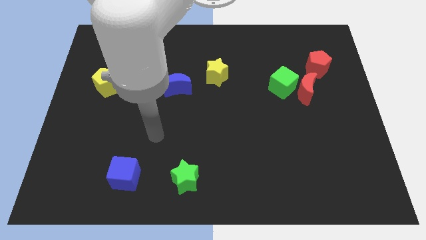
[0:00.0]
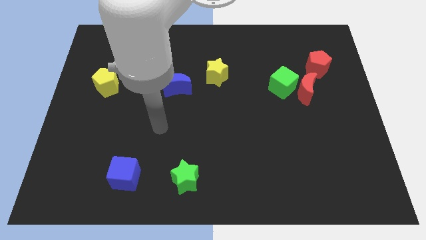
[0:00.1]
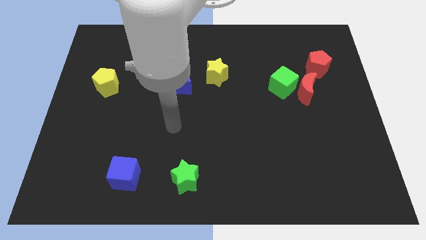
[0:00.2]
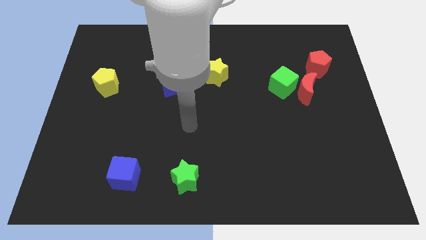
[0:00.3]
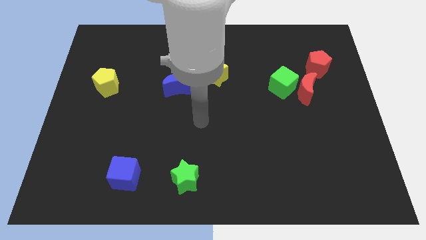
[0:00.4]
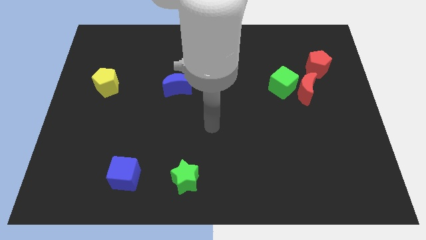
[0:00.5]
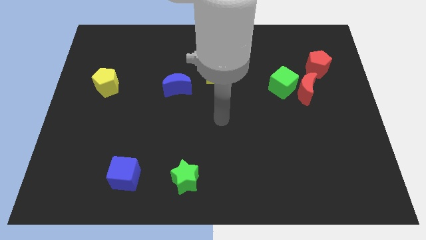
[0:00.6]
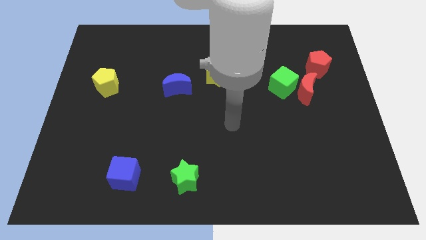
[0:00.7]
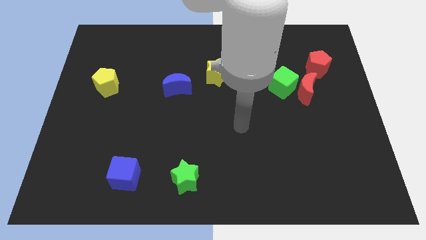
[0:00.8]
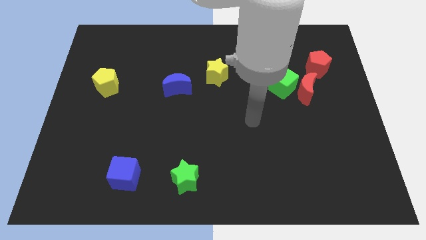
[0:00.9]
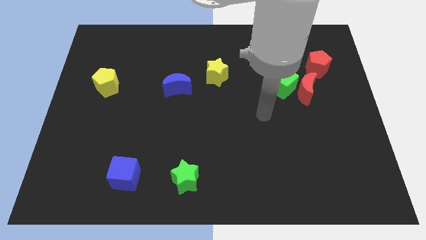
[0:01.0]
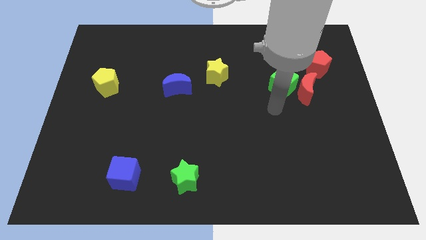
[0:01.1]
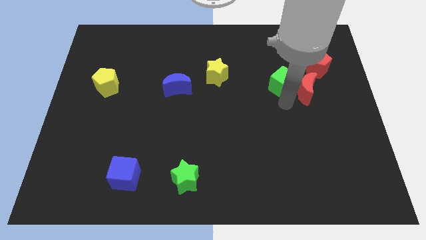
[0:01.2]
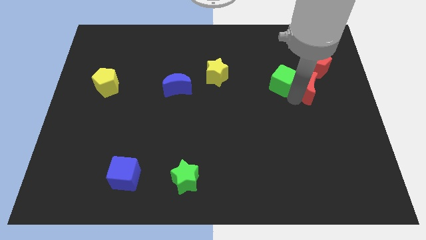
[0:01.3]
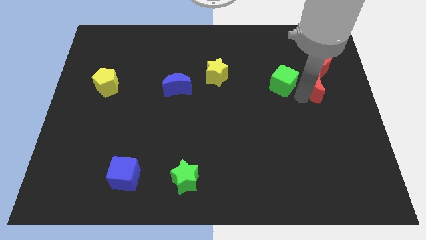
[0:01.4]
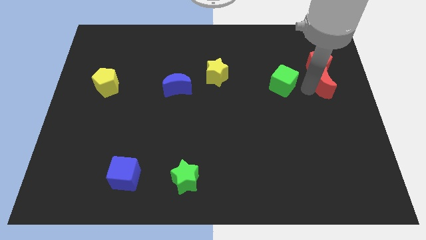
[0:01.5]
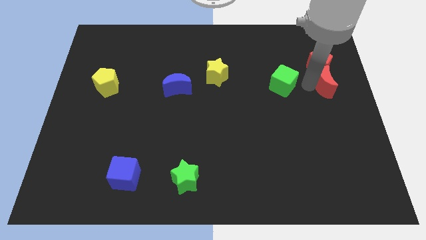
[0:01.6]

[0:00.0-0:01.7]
move the green cube away from the red moon

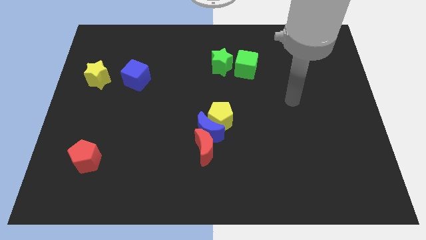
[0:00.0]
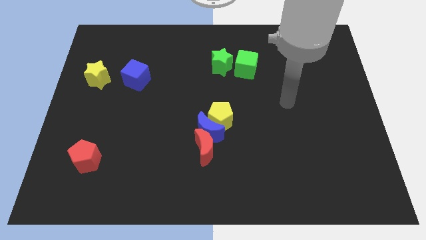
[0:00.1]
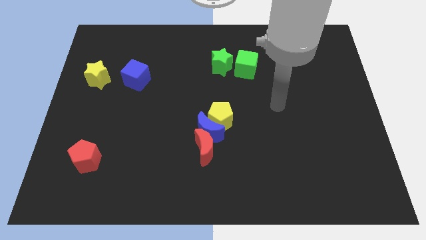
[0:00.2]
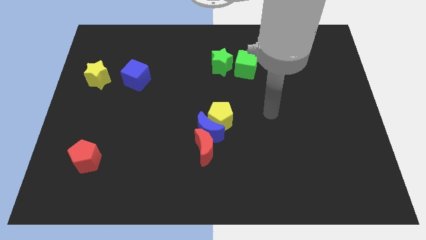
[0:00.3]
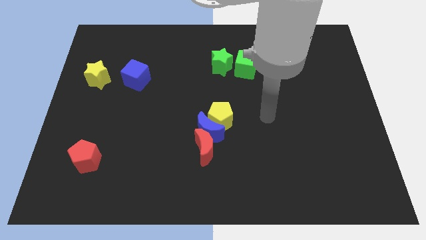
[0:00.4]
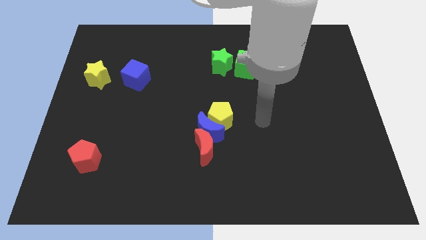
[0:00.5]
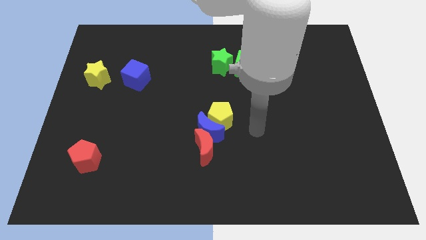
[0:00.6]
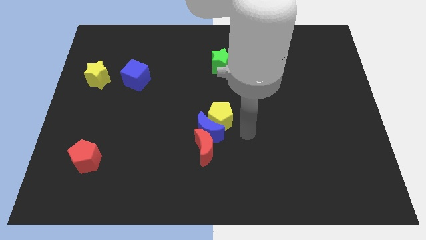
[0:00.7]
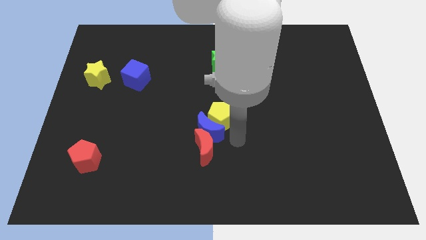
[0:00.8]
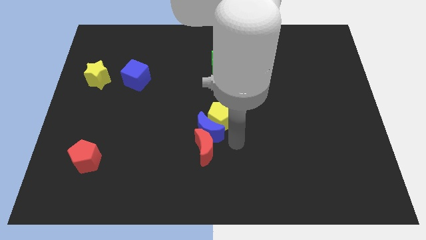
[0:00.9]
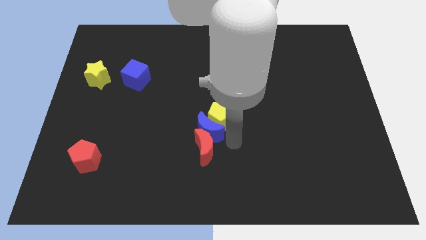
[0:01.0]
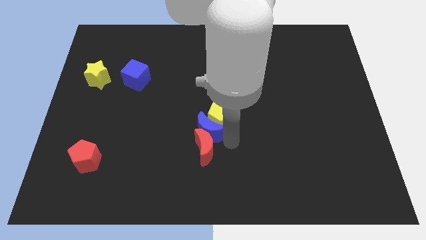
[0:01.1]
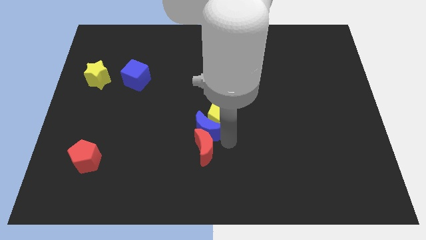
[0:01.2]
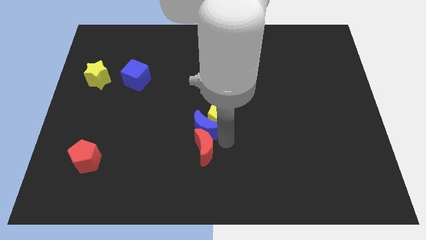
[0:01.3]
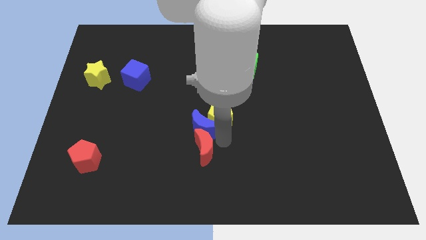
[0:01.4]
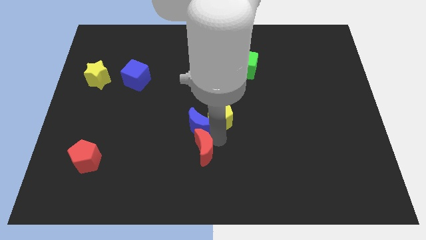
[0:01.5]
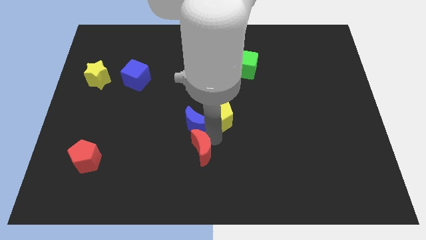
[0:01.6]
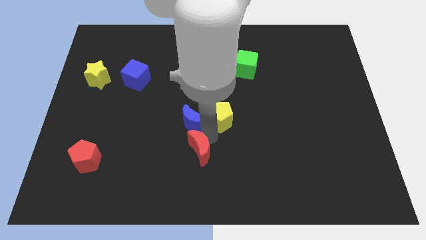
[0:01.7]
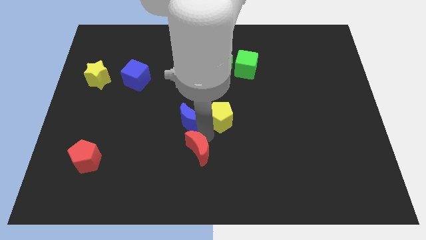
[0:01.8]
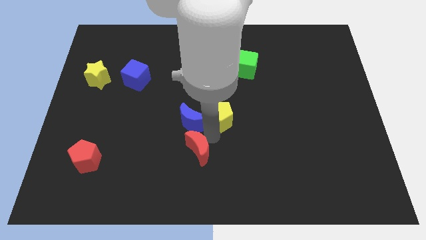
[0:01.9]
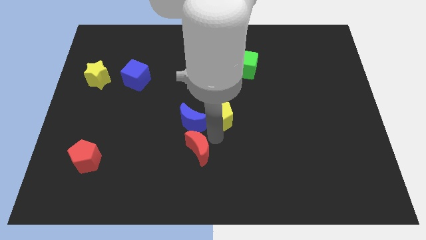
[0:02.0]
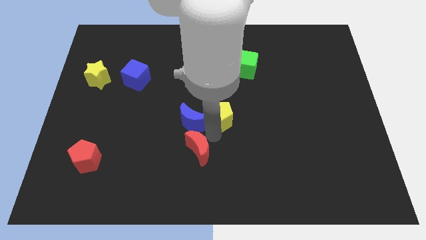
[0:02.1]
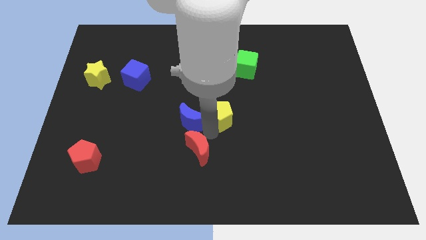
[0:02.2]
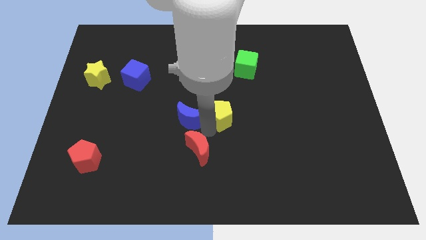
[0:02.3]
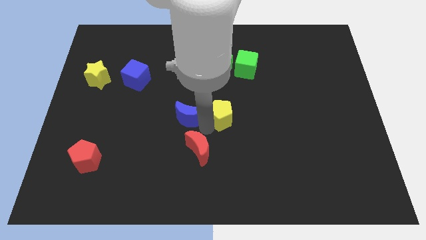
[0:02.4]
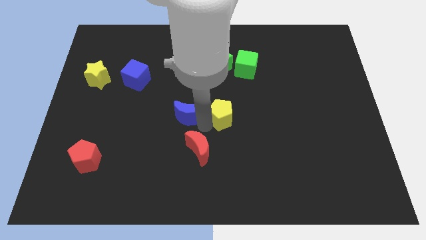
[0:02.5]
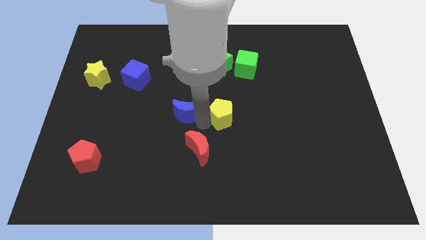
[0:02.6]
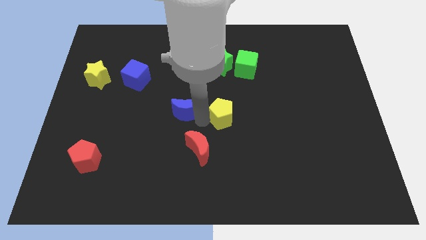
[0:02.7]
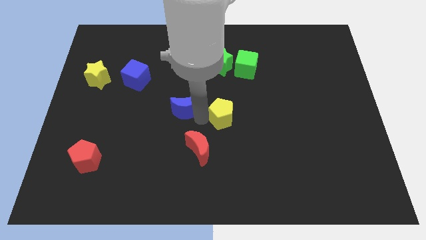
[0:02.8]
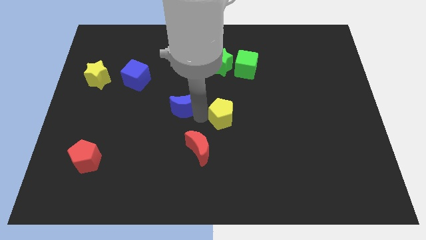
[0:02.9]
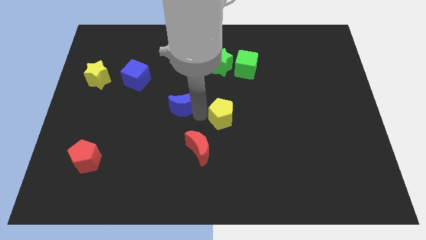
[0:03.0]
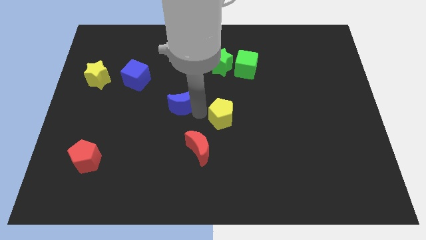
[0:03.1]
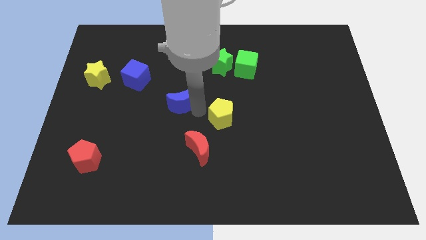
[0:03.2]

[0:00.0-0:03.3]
separate the blue moon from the yellow pentagon and red moon

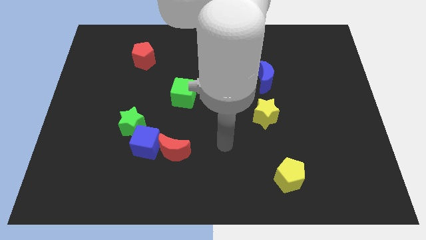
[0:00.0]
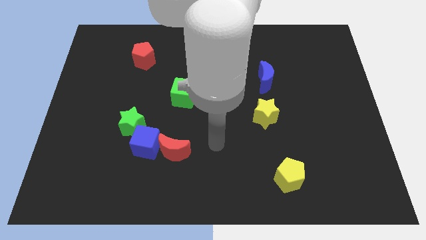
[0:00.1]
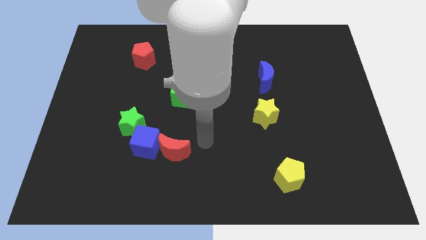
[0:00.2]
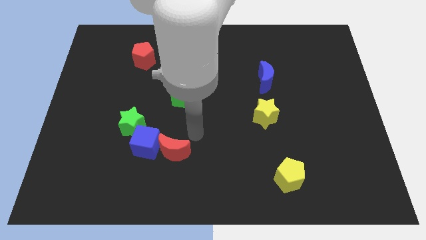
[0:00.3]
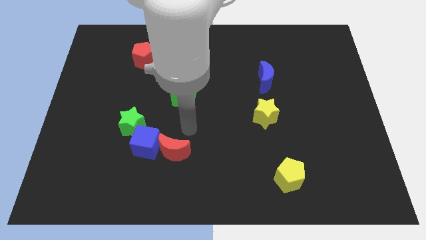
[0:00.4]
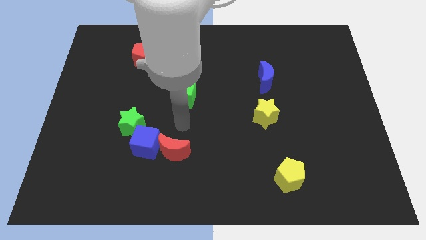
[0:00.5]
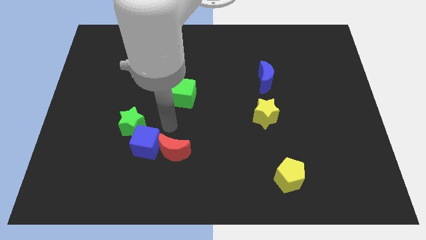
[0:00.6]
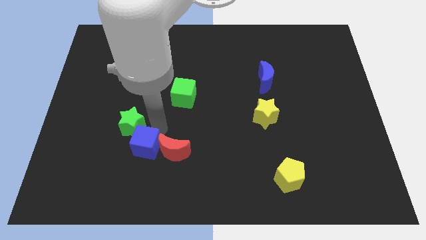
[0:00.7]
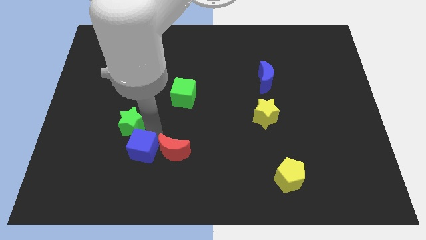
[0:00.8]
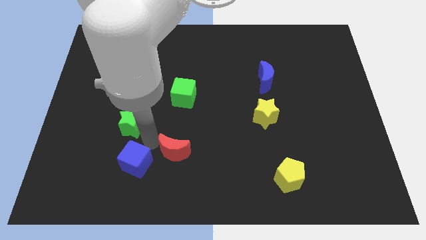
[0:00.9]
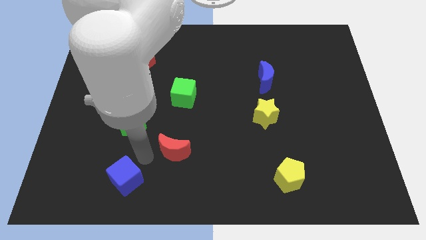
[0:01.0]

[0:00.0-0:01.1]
move the red moon away from the blue cube

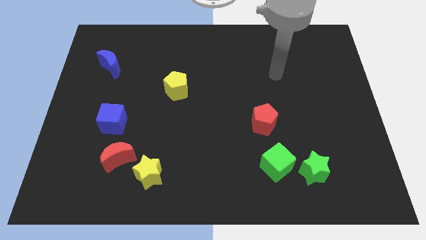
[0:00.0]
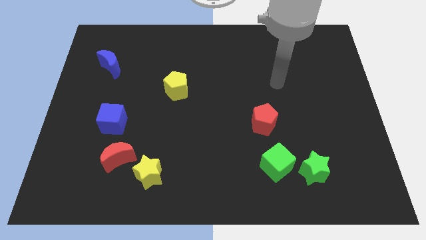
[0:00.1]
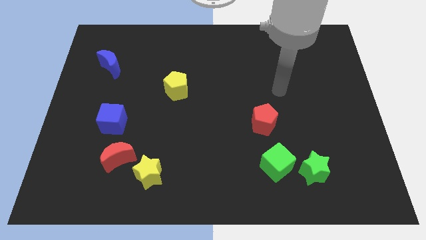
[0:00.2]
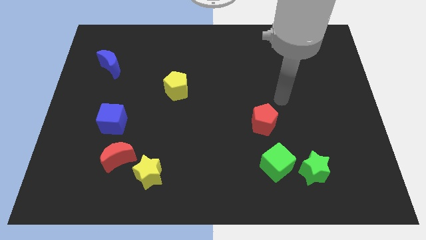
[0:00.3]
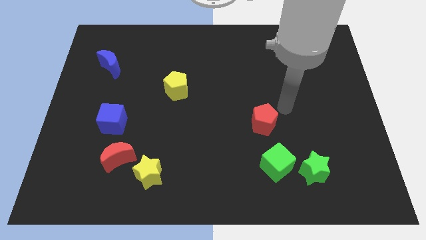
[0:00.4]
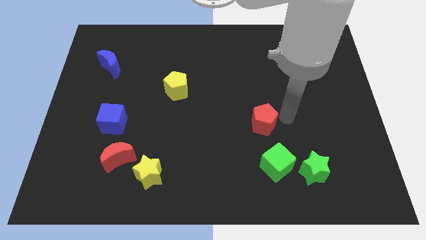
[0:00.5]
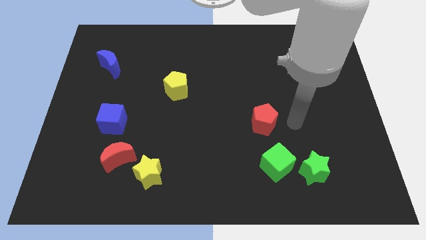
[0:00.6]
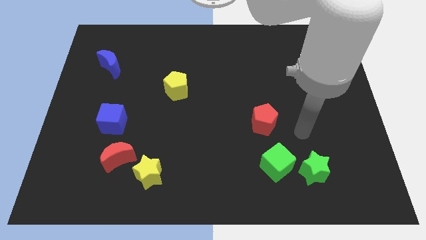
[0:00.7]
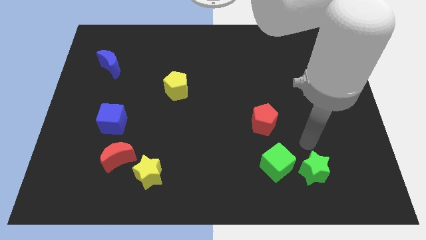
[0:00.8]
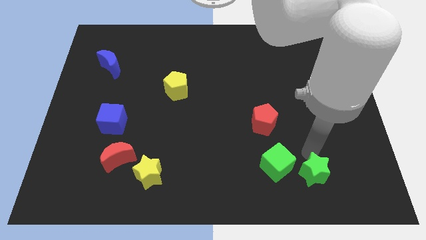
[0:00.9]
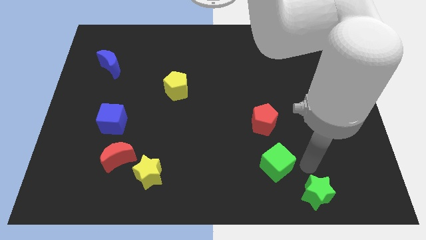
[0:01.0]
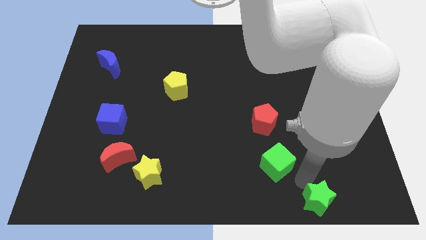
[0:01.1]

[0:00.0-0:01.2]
separate the green cube from the green star

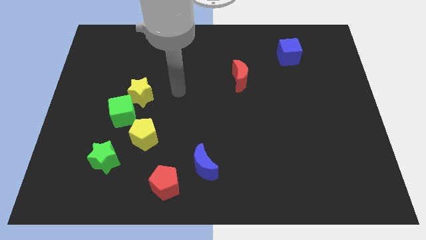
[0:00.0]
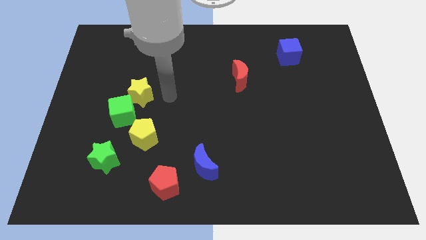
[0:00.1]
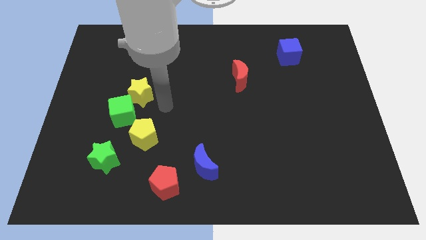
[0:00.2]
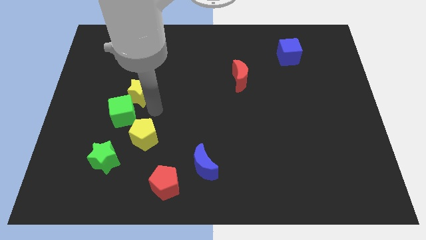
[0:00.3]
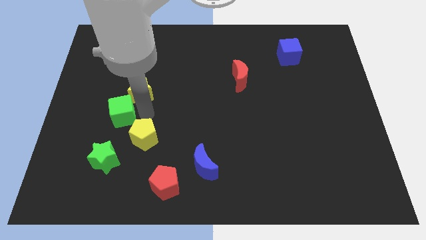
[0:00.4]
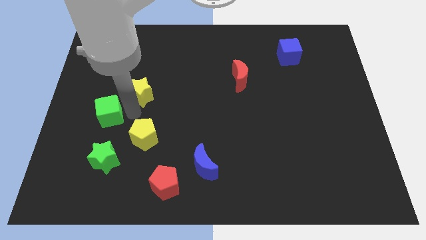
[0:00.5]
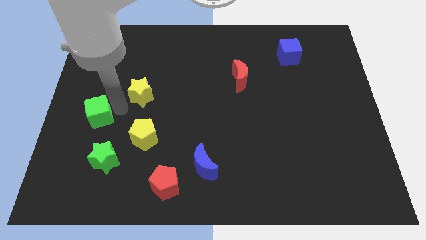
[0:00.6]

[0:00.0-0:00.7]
move the yellow star away from the green cube

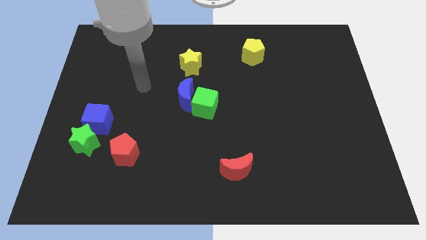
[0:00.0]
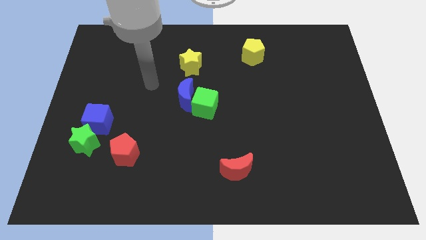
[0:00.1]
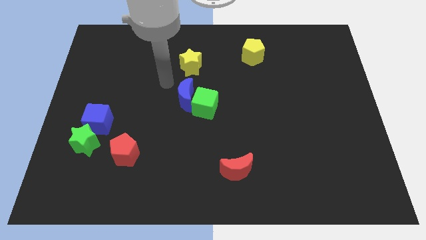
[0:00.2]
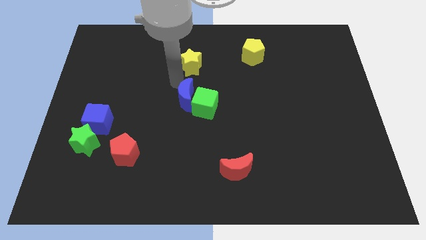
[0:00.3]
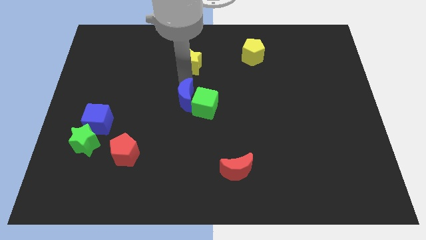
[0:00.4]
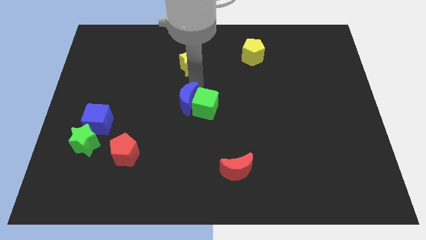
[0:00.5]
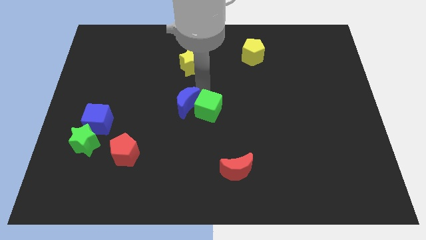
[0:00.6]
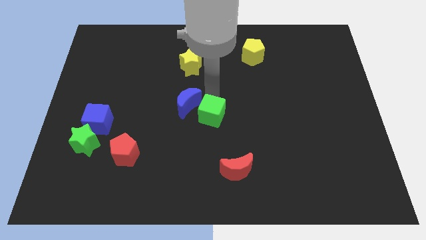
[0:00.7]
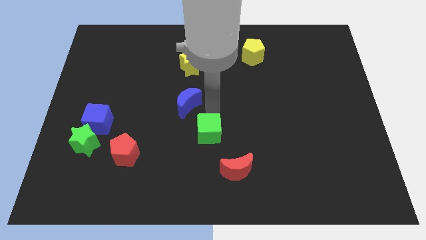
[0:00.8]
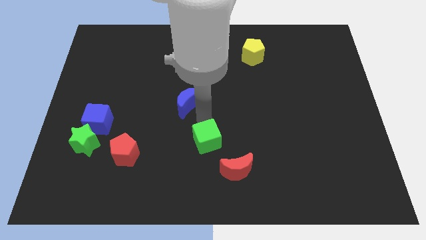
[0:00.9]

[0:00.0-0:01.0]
move the blue moon away from the green cube

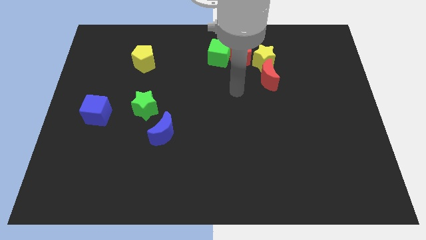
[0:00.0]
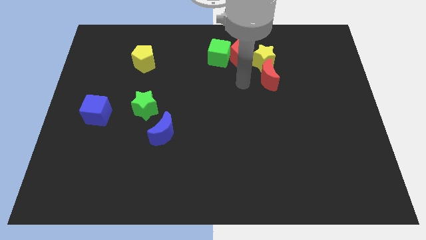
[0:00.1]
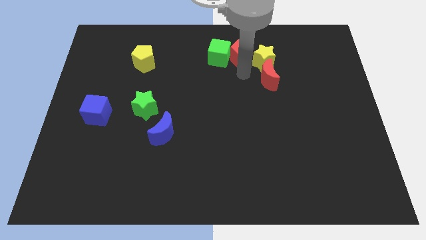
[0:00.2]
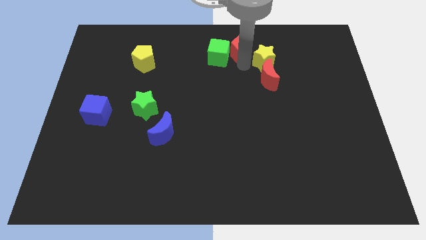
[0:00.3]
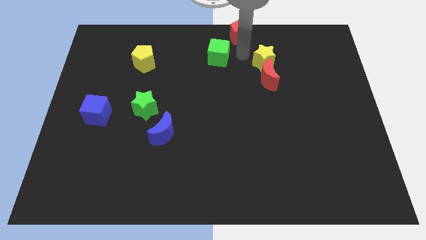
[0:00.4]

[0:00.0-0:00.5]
pull the green cube apart from the red pentagon
